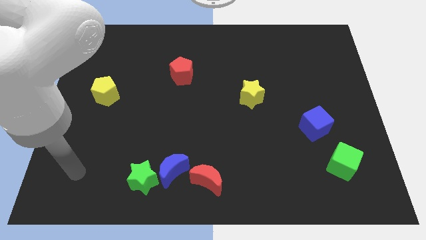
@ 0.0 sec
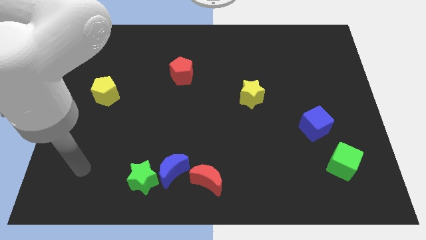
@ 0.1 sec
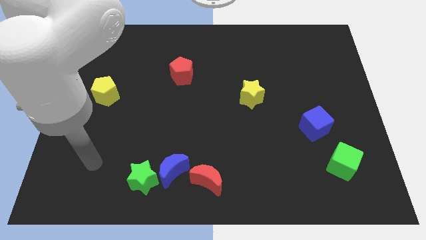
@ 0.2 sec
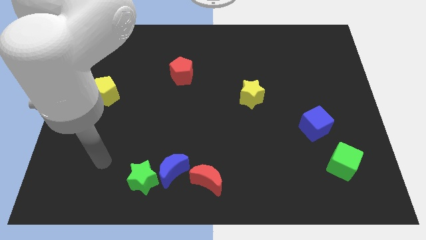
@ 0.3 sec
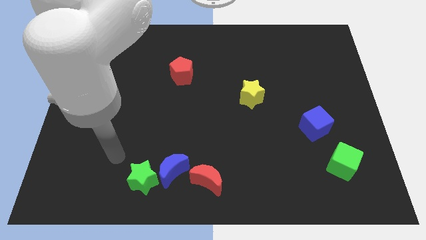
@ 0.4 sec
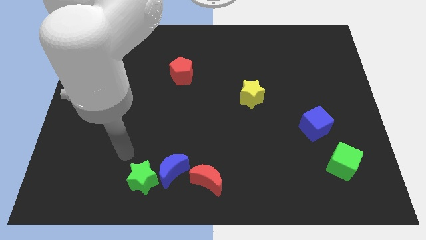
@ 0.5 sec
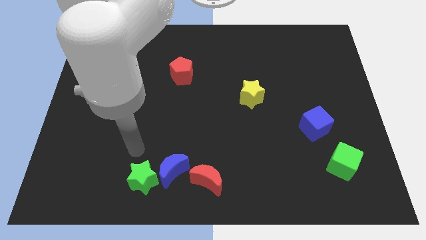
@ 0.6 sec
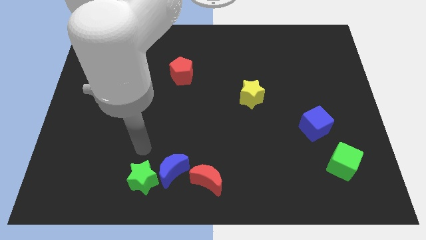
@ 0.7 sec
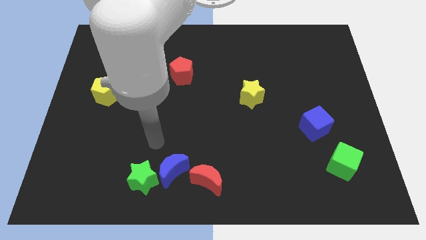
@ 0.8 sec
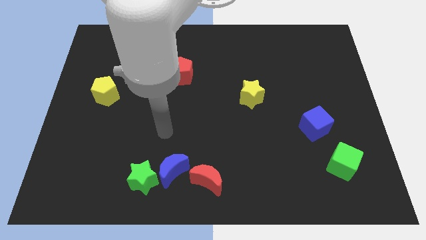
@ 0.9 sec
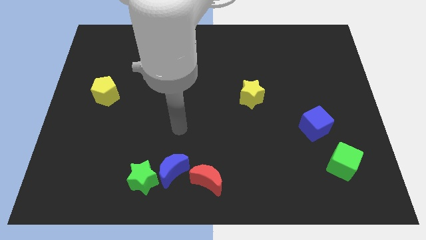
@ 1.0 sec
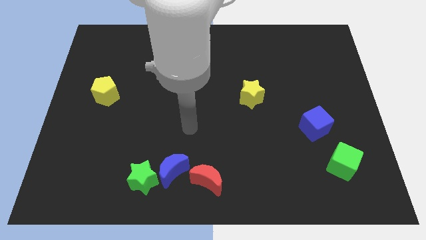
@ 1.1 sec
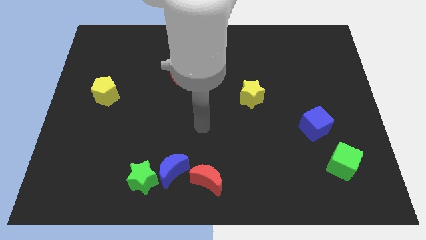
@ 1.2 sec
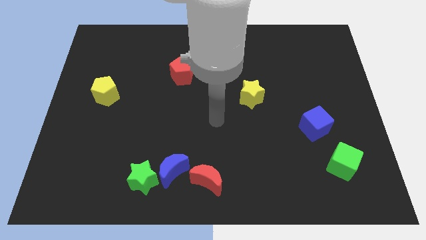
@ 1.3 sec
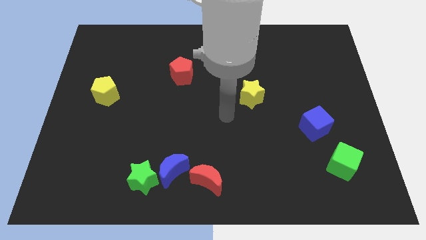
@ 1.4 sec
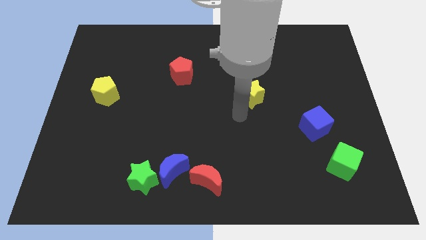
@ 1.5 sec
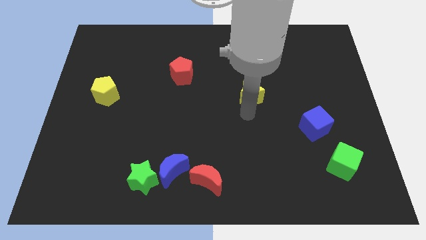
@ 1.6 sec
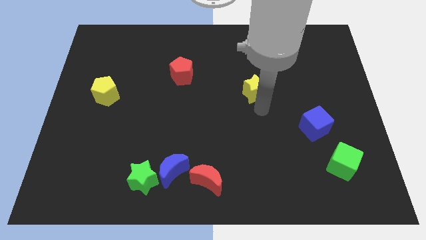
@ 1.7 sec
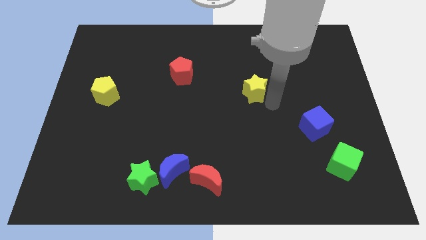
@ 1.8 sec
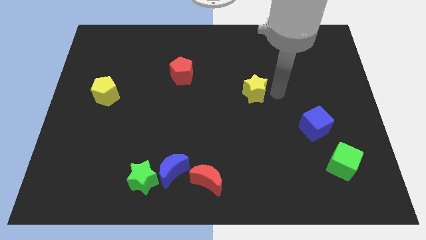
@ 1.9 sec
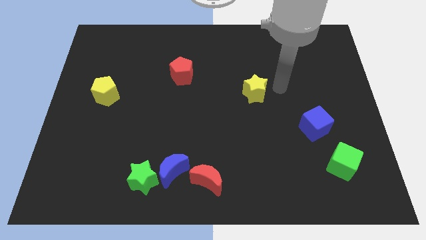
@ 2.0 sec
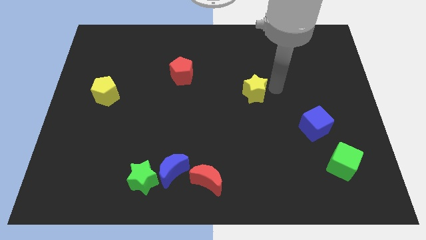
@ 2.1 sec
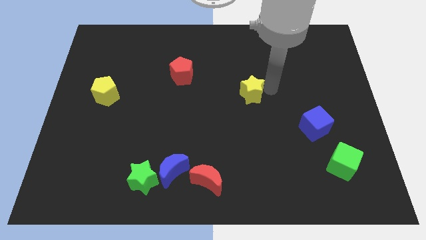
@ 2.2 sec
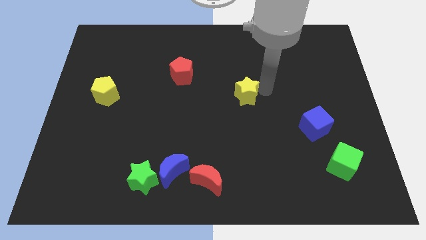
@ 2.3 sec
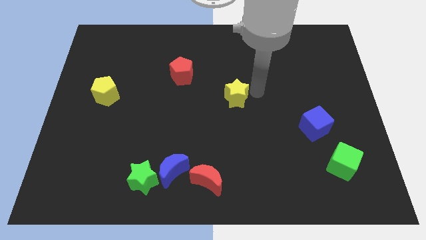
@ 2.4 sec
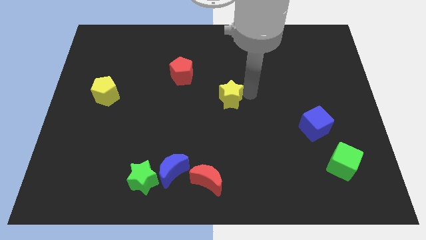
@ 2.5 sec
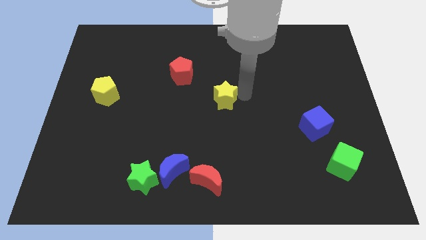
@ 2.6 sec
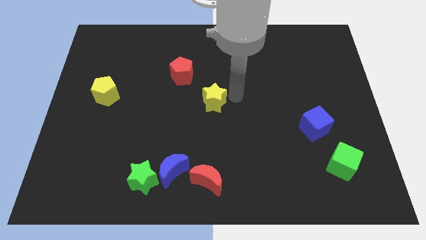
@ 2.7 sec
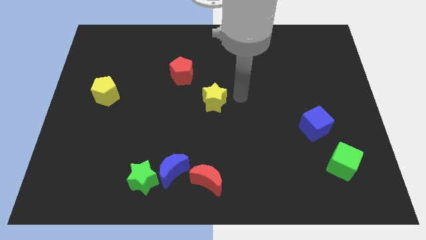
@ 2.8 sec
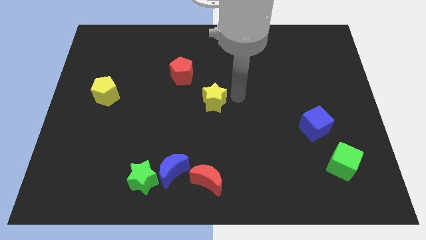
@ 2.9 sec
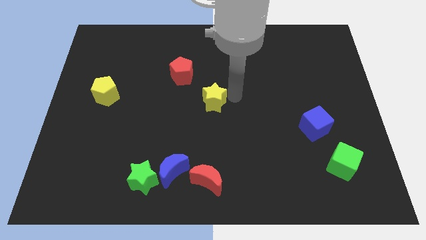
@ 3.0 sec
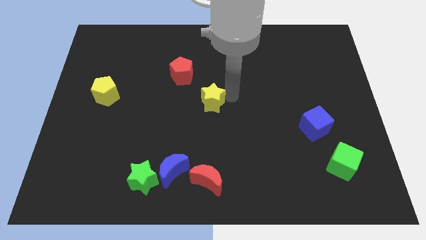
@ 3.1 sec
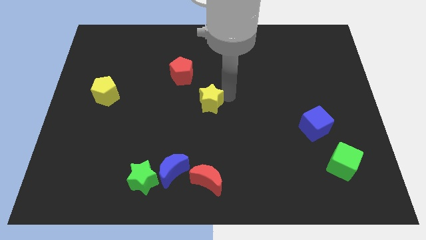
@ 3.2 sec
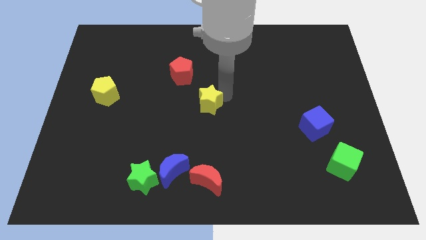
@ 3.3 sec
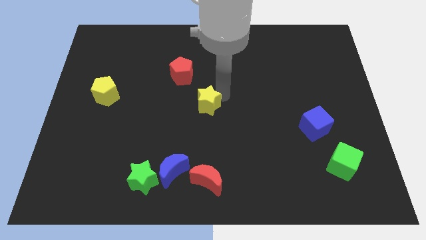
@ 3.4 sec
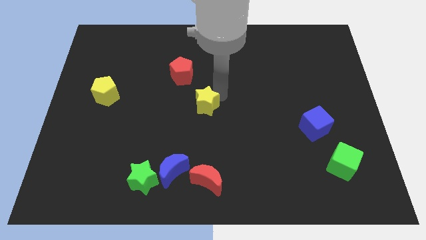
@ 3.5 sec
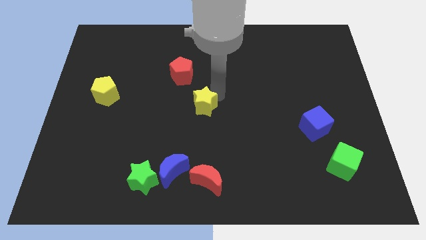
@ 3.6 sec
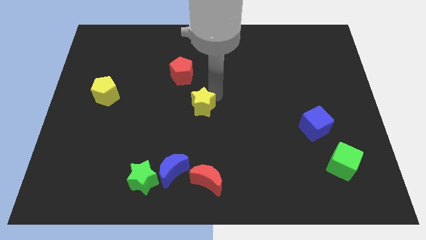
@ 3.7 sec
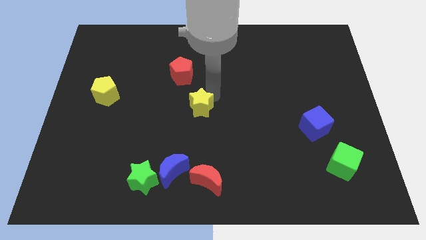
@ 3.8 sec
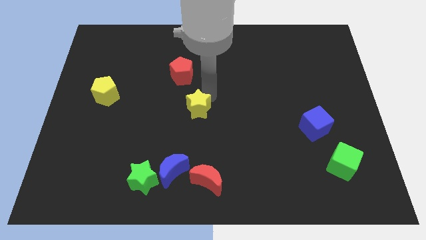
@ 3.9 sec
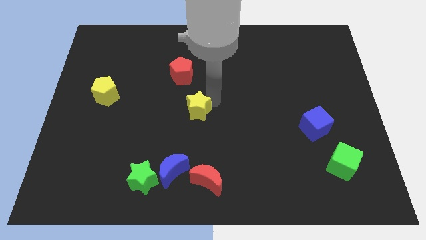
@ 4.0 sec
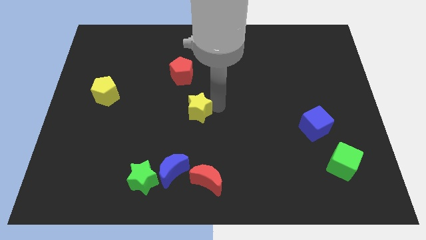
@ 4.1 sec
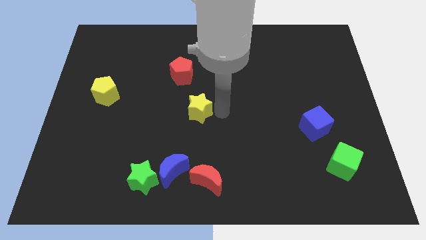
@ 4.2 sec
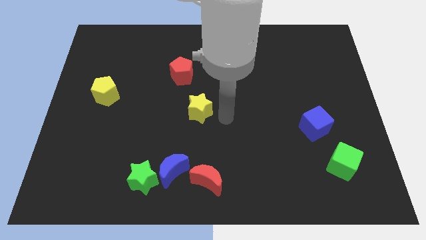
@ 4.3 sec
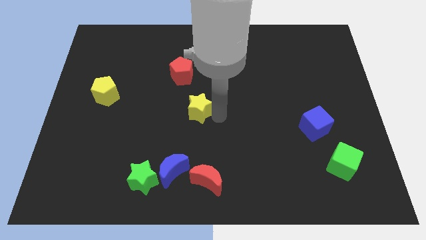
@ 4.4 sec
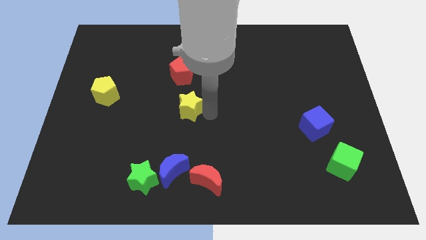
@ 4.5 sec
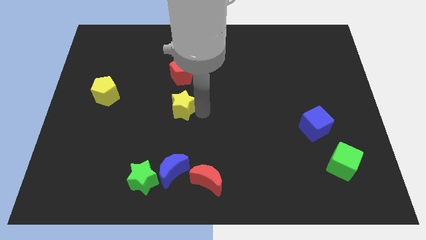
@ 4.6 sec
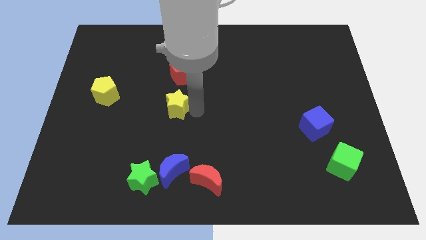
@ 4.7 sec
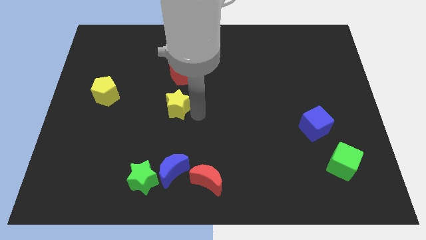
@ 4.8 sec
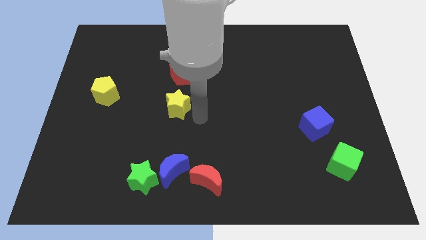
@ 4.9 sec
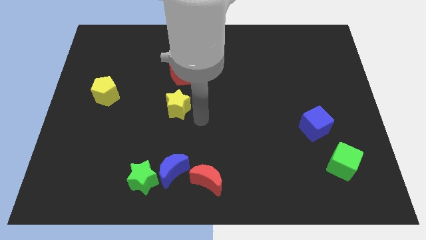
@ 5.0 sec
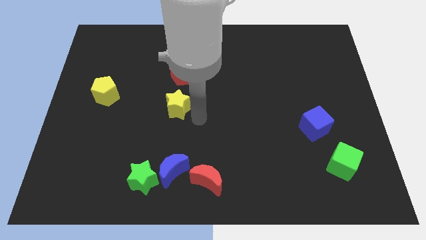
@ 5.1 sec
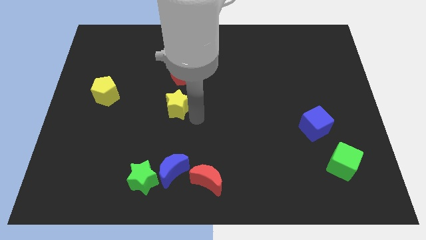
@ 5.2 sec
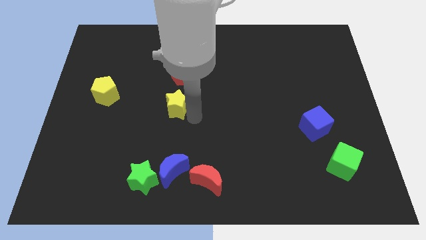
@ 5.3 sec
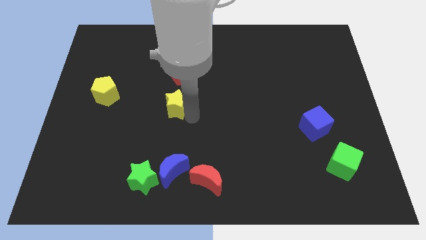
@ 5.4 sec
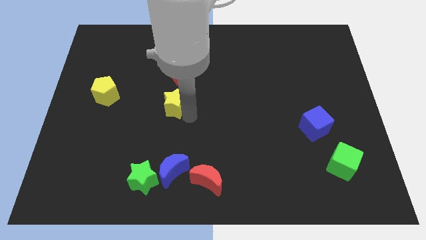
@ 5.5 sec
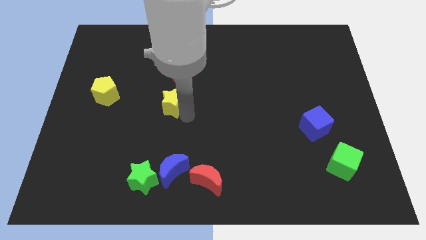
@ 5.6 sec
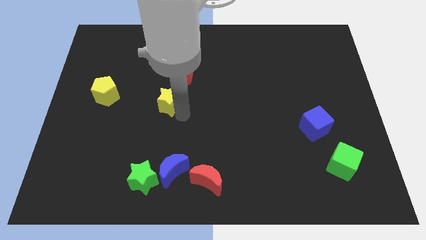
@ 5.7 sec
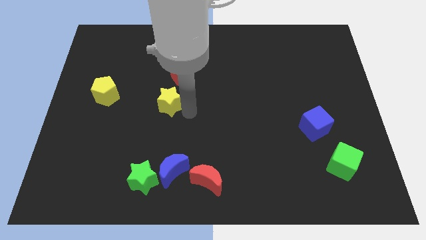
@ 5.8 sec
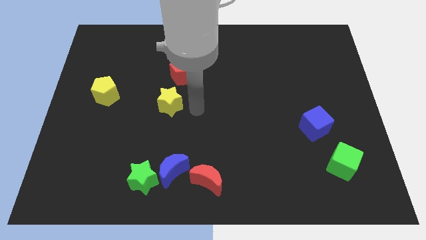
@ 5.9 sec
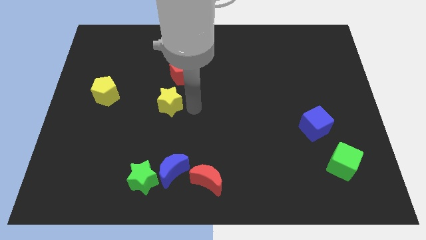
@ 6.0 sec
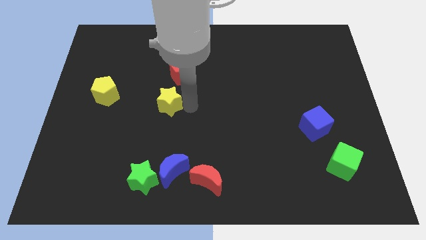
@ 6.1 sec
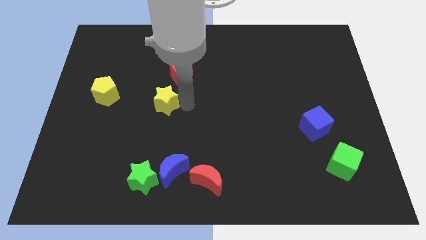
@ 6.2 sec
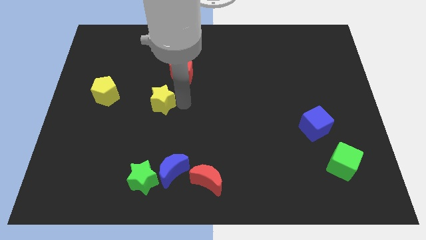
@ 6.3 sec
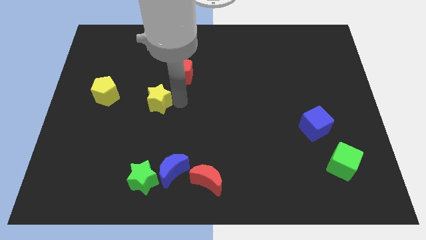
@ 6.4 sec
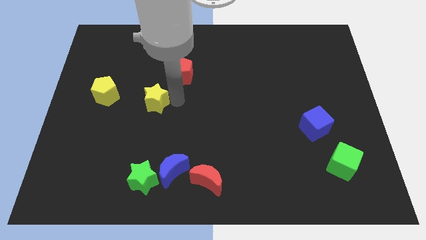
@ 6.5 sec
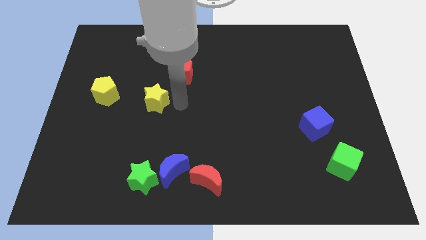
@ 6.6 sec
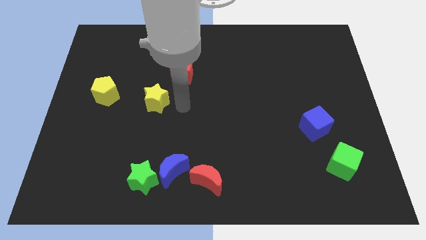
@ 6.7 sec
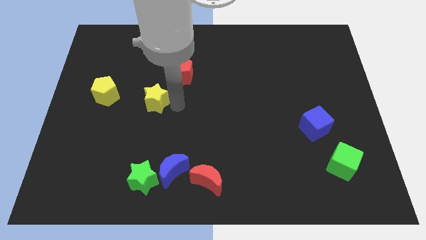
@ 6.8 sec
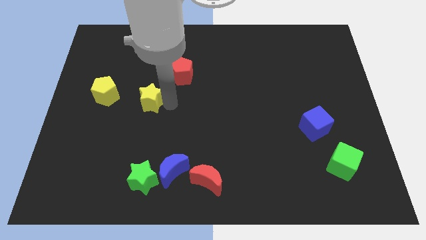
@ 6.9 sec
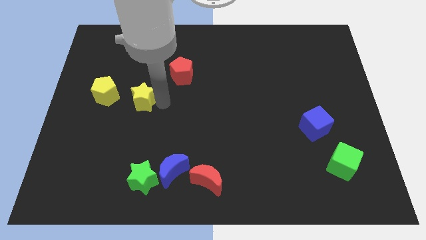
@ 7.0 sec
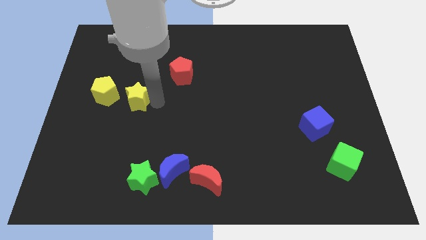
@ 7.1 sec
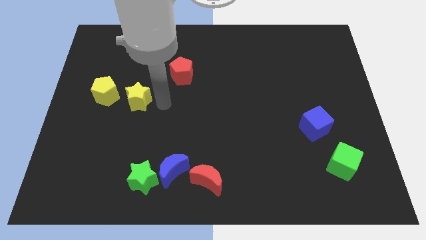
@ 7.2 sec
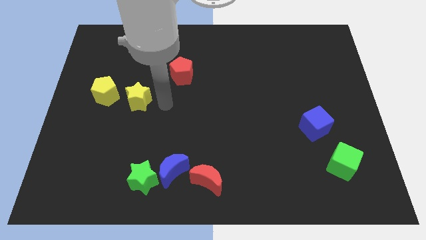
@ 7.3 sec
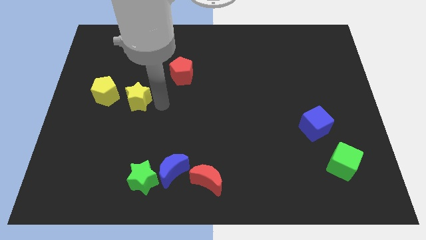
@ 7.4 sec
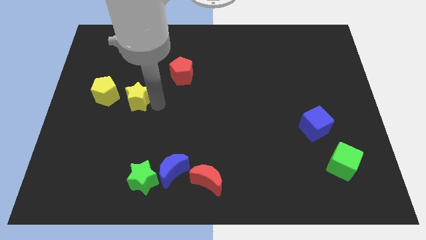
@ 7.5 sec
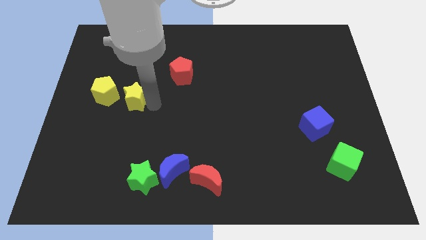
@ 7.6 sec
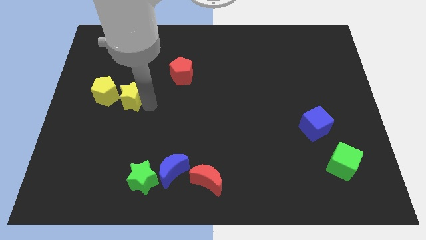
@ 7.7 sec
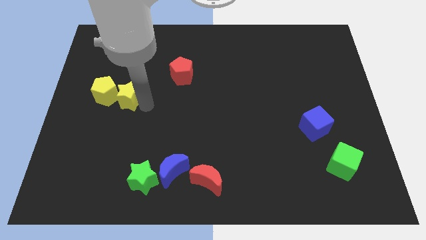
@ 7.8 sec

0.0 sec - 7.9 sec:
push the yellow star next to the yellow pentagon
